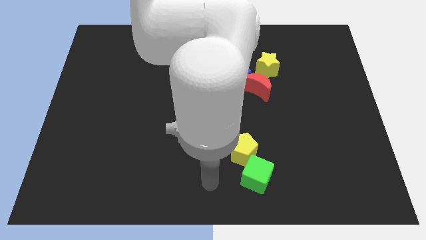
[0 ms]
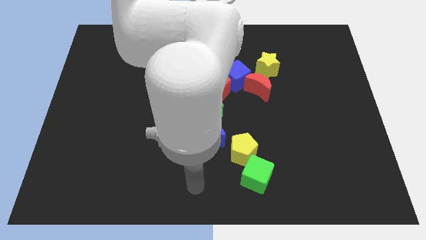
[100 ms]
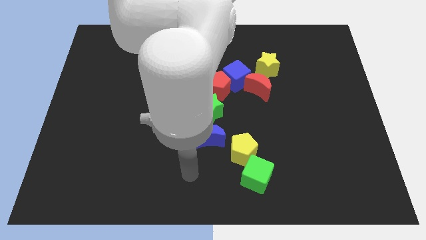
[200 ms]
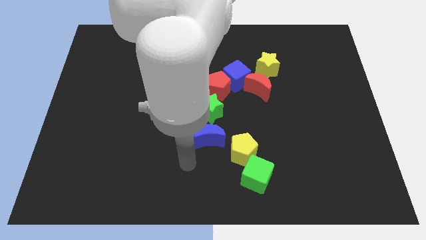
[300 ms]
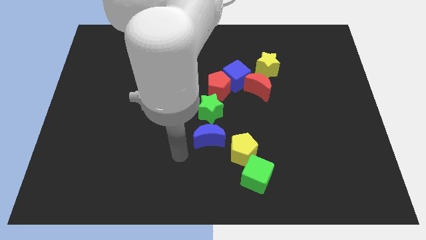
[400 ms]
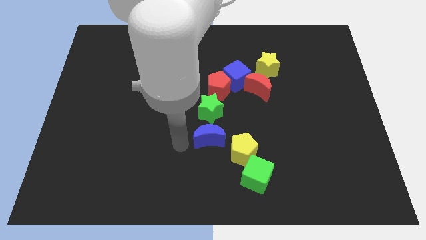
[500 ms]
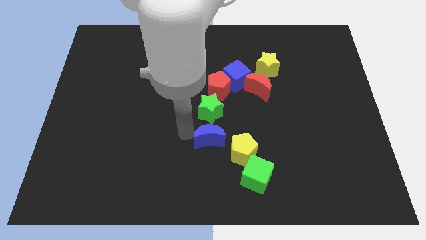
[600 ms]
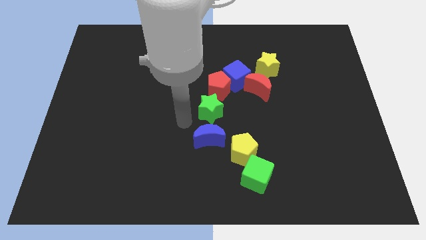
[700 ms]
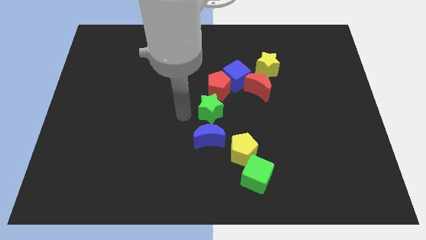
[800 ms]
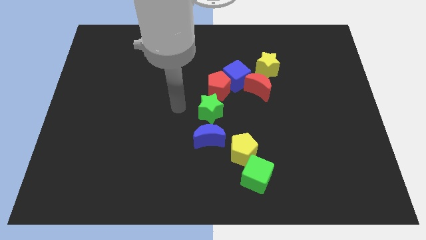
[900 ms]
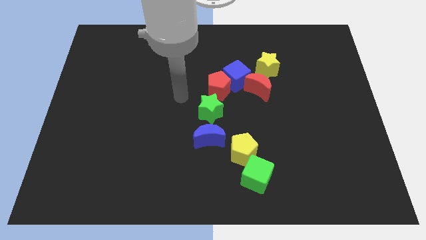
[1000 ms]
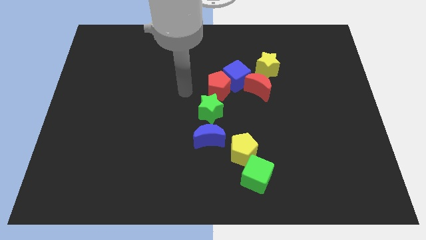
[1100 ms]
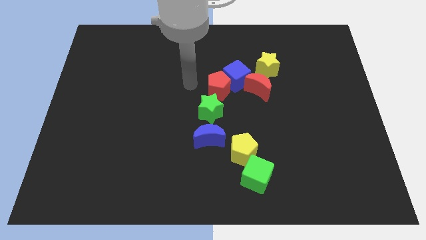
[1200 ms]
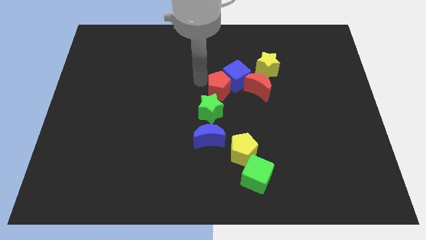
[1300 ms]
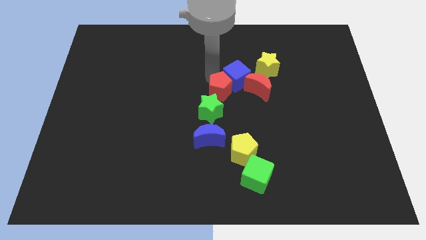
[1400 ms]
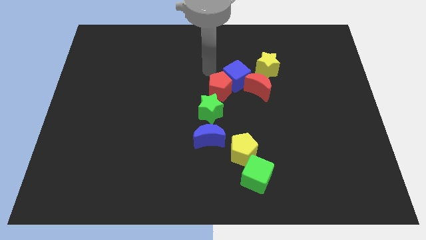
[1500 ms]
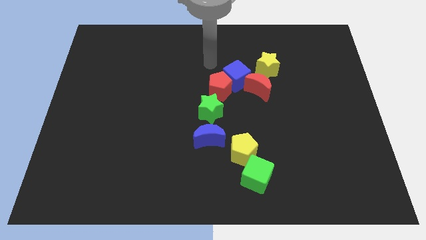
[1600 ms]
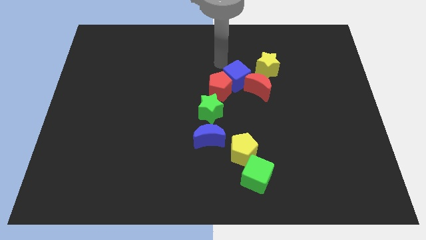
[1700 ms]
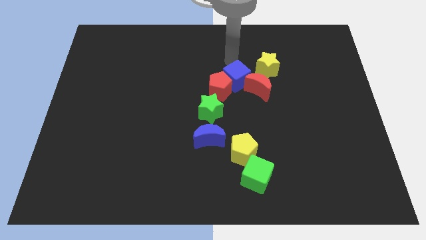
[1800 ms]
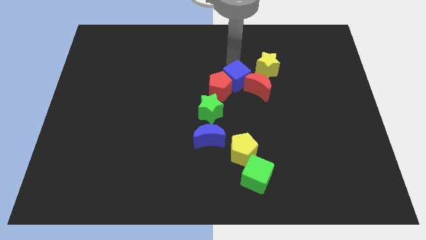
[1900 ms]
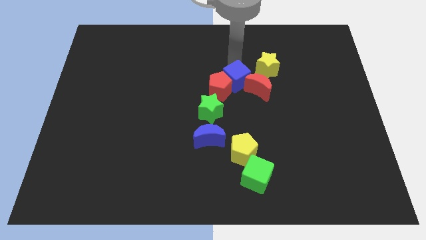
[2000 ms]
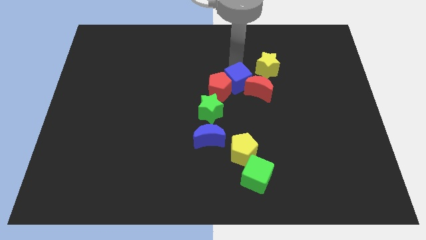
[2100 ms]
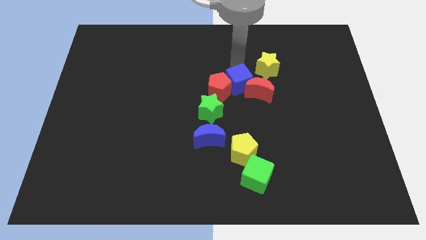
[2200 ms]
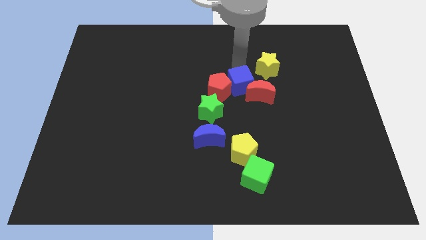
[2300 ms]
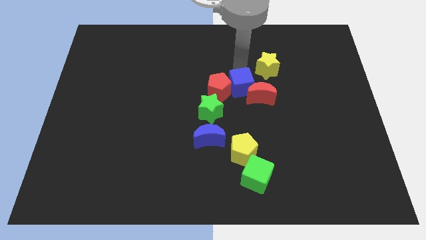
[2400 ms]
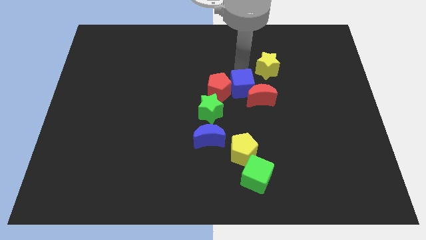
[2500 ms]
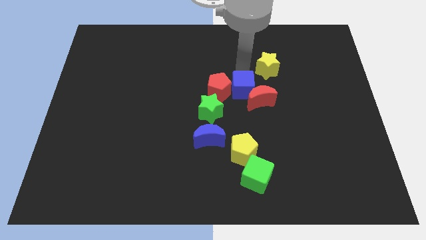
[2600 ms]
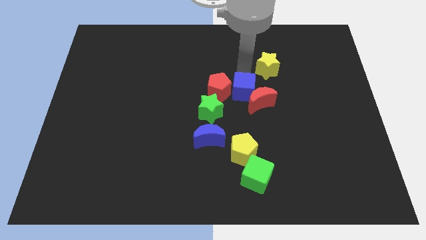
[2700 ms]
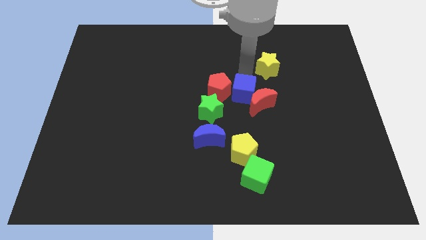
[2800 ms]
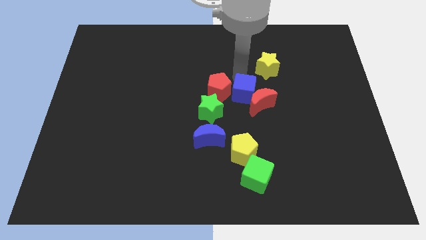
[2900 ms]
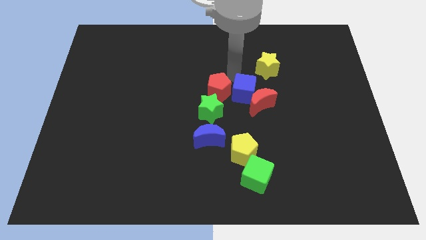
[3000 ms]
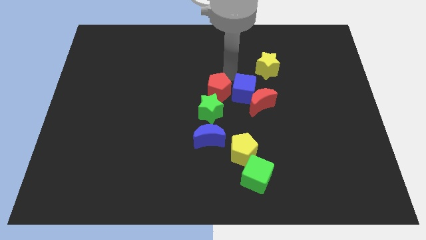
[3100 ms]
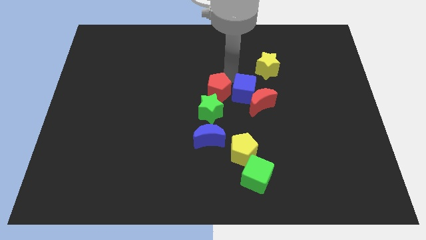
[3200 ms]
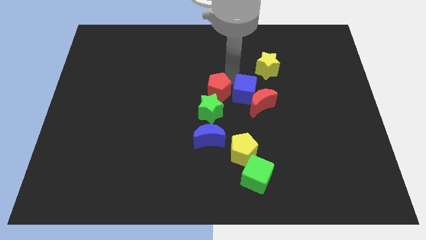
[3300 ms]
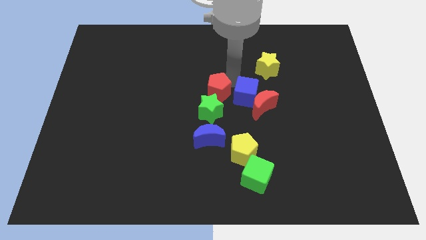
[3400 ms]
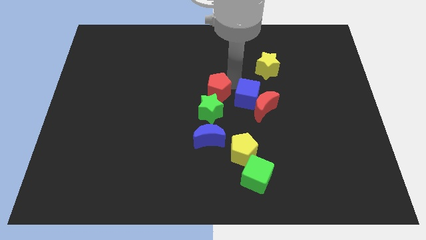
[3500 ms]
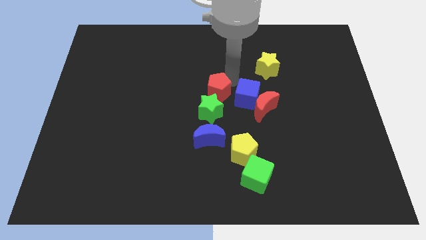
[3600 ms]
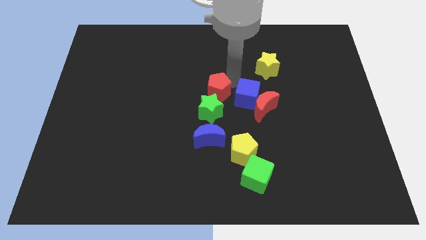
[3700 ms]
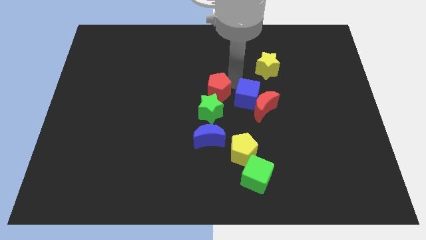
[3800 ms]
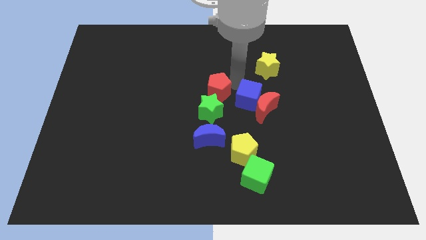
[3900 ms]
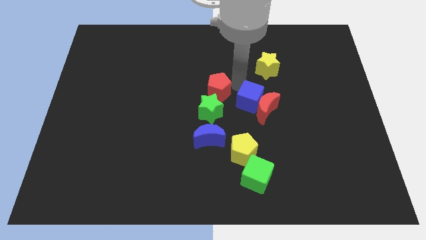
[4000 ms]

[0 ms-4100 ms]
slightly move the blue cube down and to the right diagonally

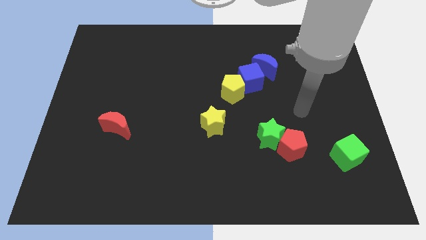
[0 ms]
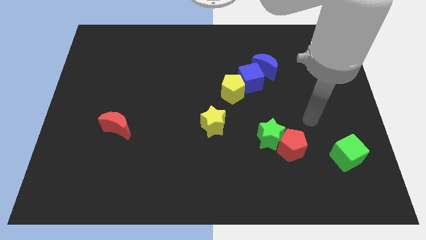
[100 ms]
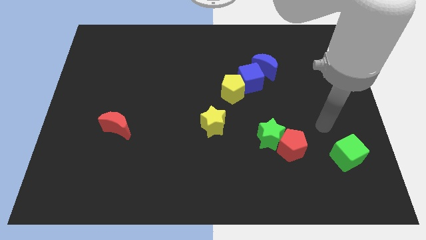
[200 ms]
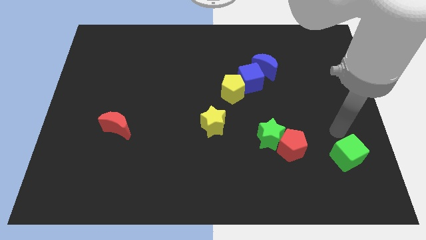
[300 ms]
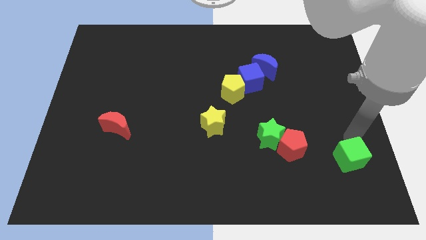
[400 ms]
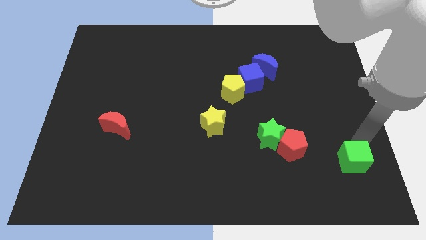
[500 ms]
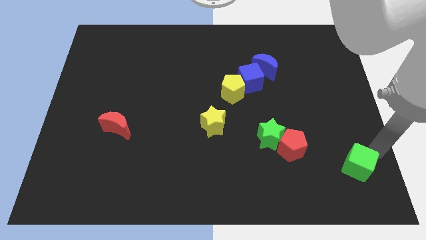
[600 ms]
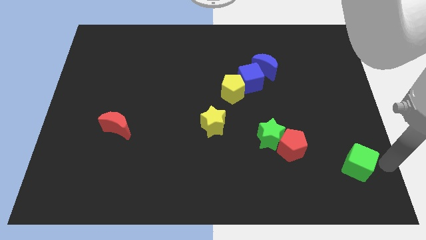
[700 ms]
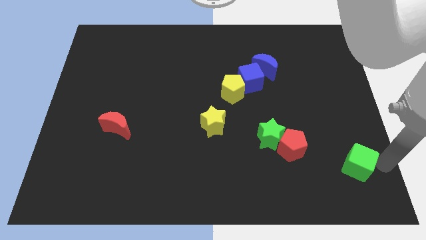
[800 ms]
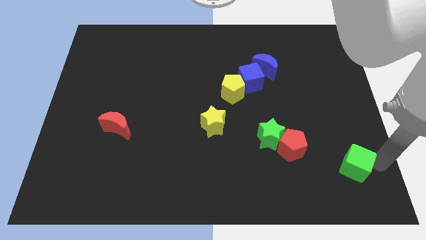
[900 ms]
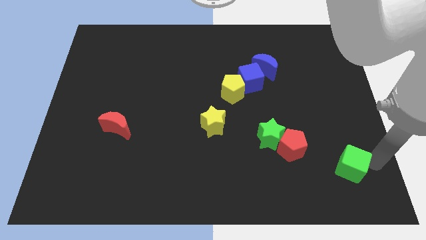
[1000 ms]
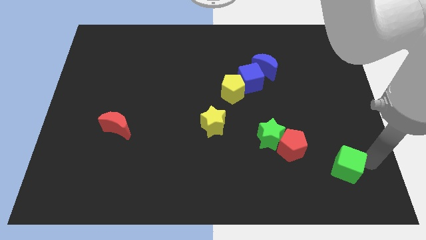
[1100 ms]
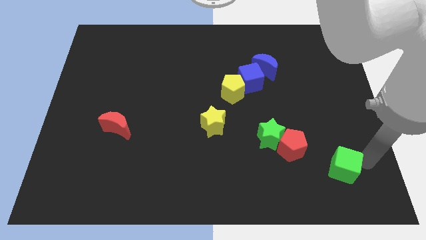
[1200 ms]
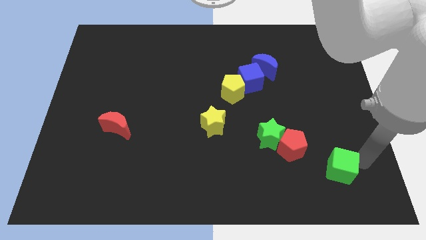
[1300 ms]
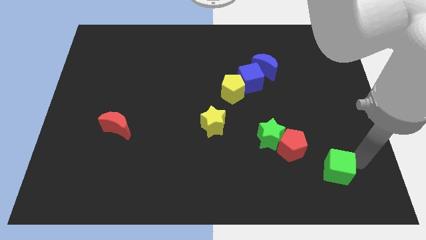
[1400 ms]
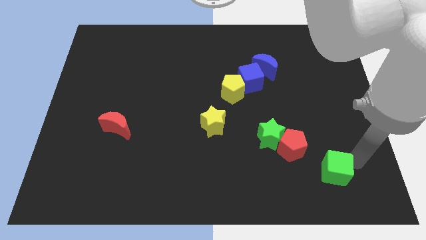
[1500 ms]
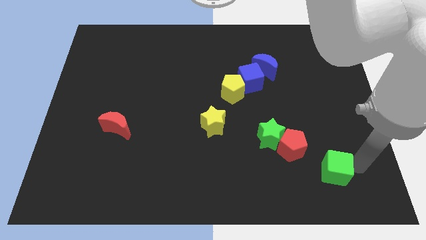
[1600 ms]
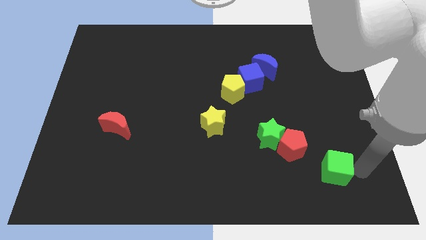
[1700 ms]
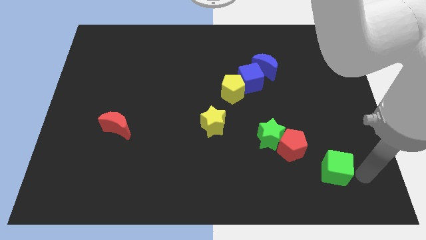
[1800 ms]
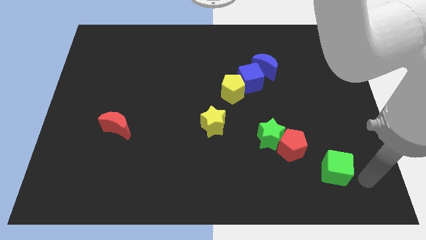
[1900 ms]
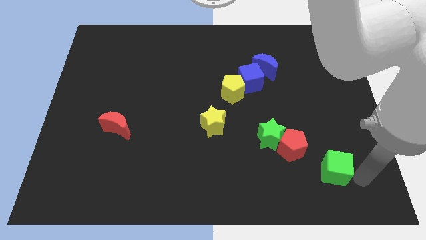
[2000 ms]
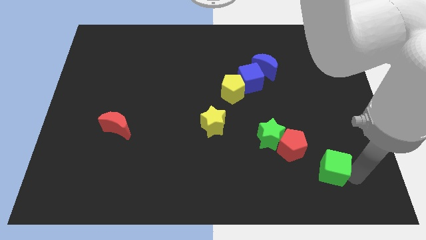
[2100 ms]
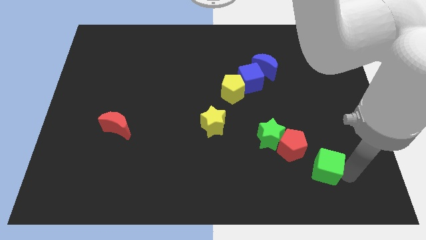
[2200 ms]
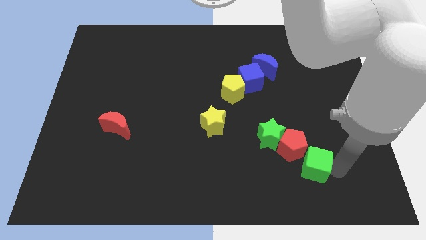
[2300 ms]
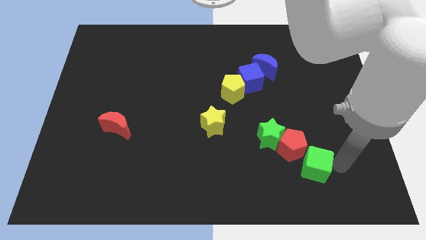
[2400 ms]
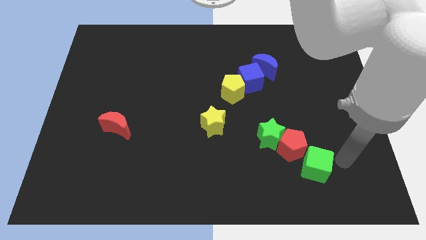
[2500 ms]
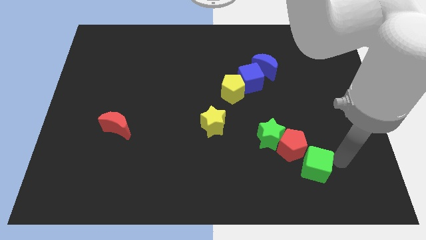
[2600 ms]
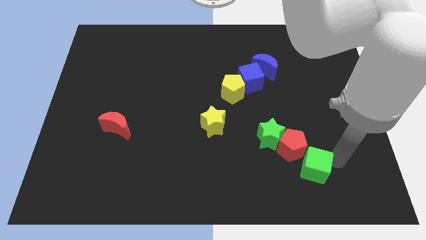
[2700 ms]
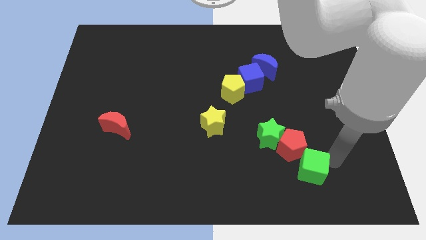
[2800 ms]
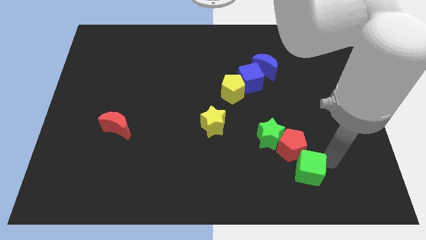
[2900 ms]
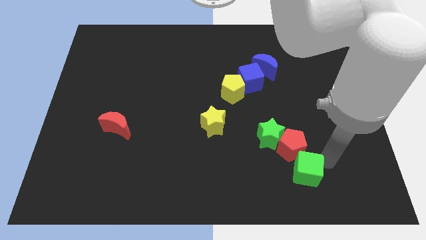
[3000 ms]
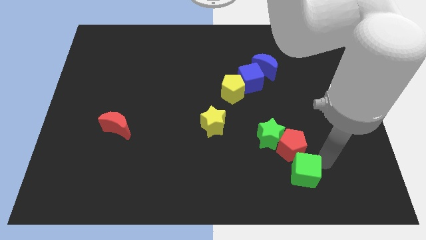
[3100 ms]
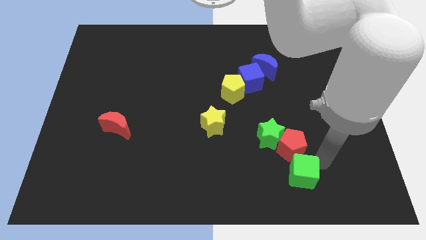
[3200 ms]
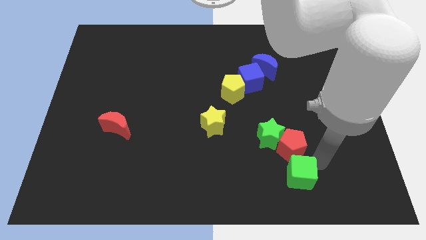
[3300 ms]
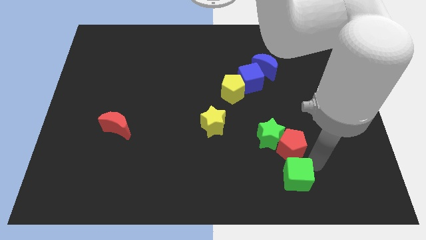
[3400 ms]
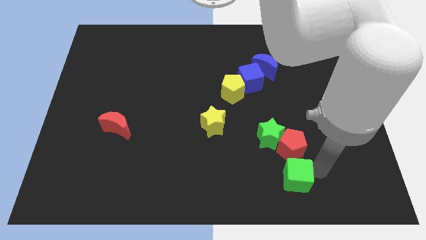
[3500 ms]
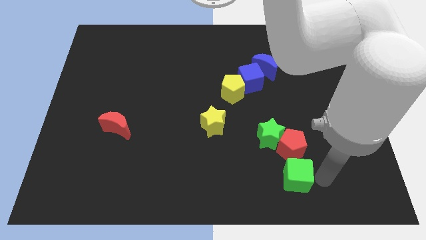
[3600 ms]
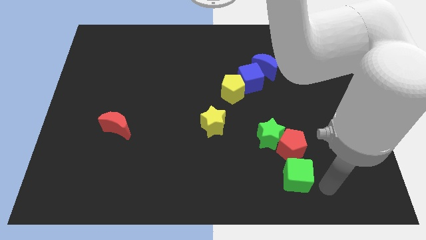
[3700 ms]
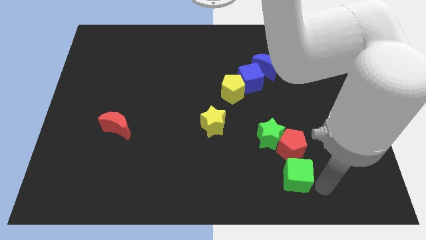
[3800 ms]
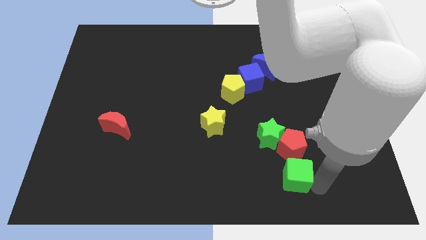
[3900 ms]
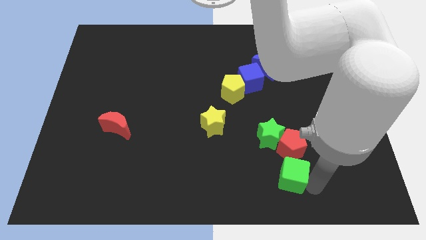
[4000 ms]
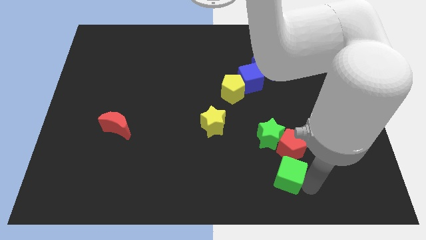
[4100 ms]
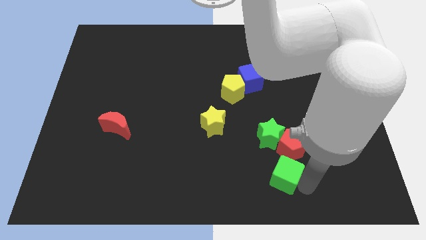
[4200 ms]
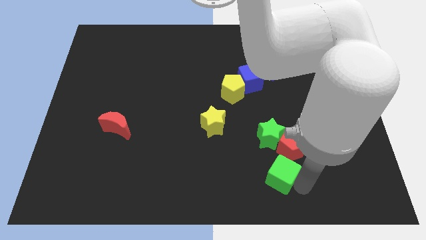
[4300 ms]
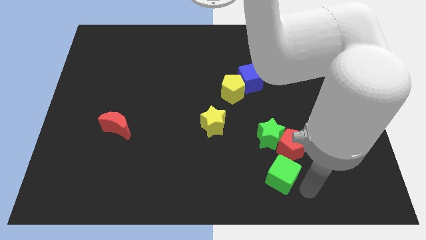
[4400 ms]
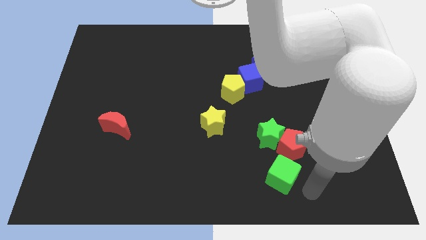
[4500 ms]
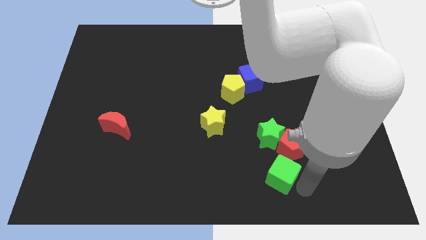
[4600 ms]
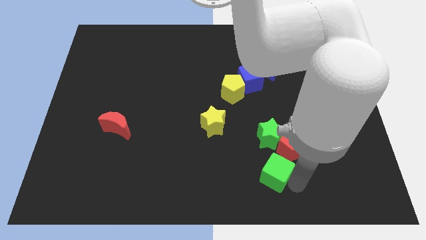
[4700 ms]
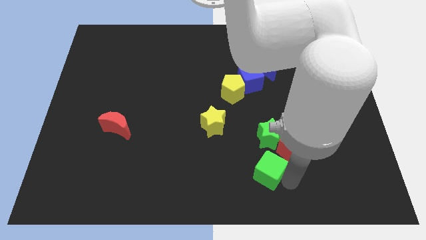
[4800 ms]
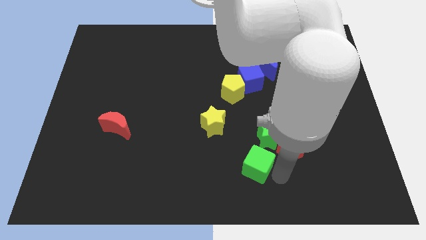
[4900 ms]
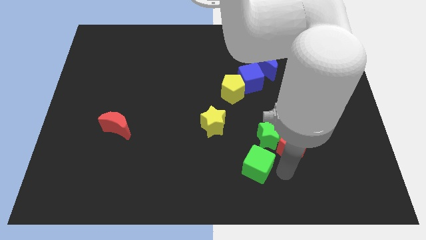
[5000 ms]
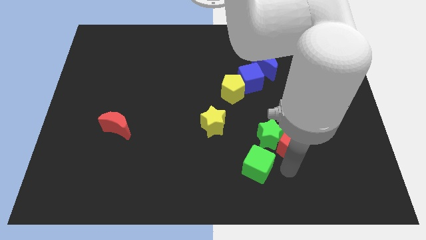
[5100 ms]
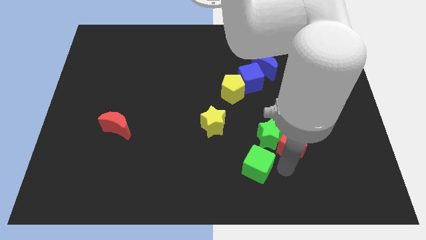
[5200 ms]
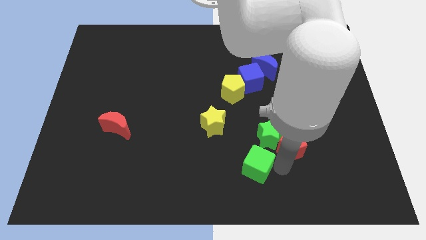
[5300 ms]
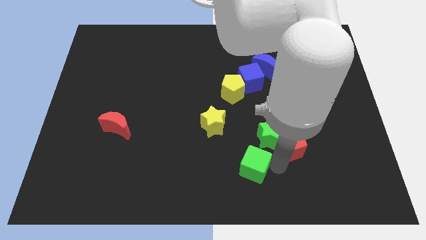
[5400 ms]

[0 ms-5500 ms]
push the green cube left
